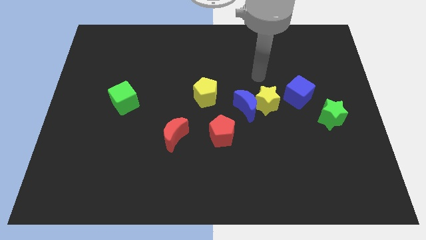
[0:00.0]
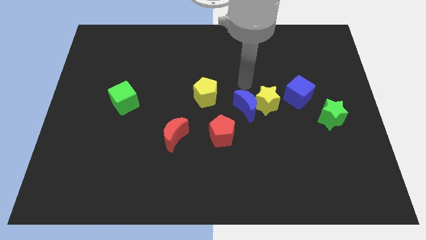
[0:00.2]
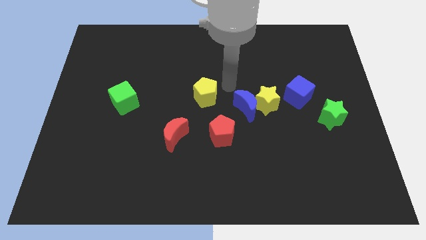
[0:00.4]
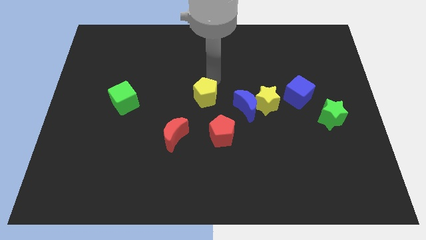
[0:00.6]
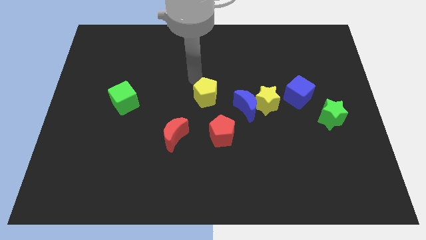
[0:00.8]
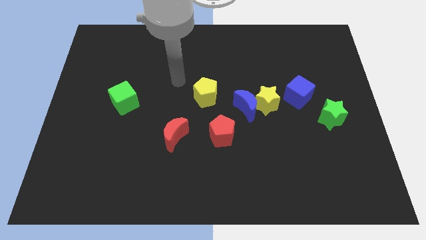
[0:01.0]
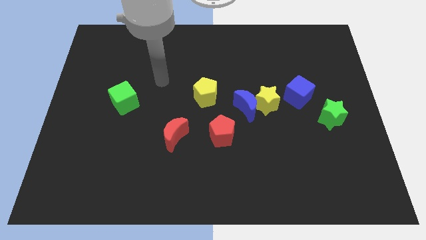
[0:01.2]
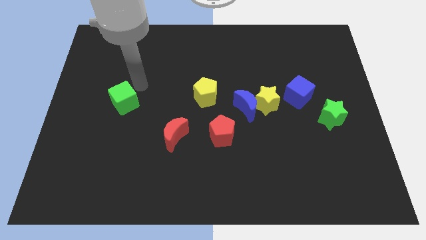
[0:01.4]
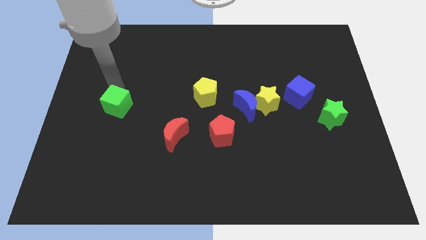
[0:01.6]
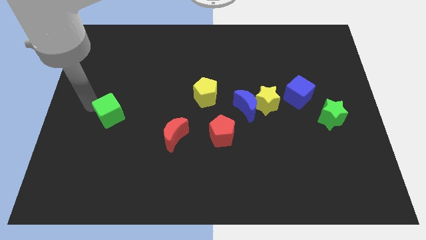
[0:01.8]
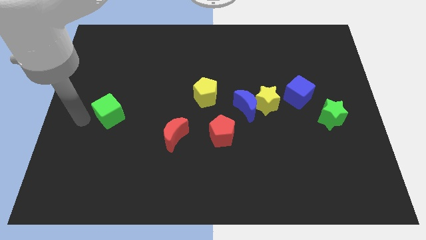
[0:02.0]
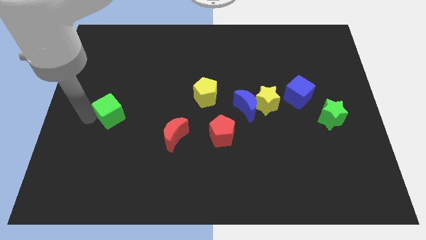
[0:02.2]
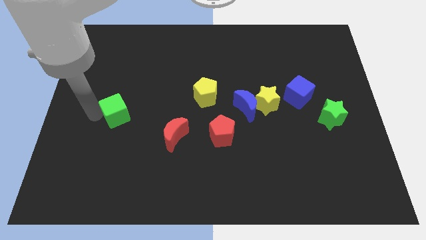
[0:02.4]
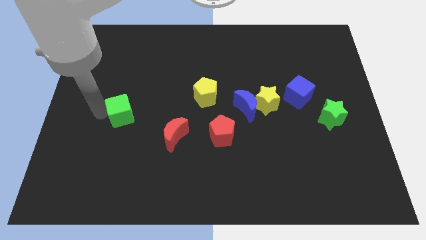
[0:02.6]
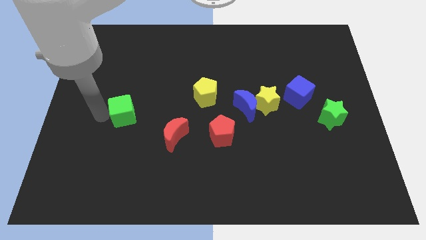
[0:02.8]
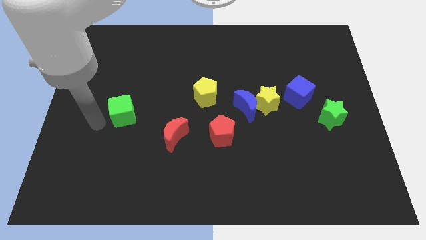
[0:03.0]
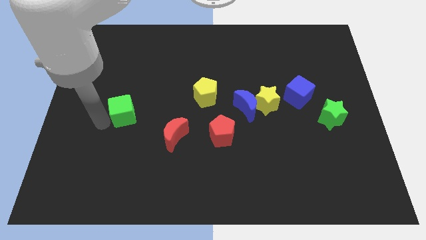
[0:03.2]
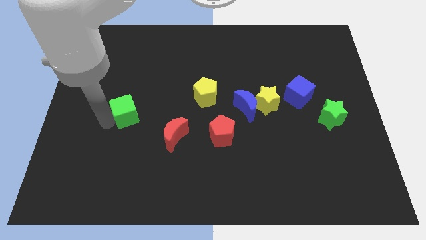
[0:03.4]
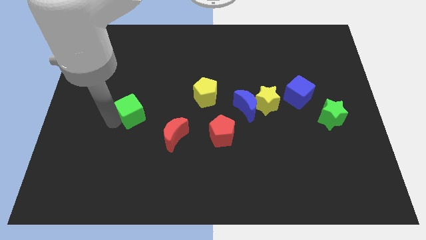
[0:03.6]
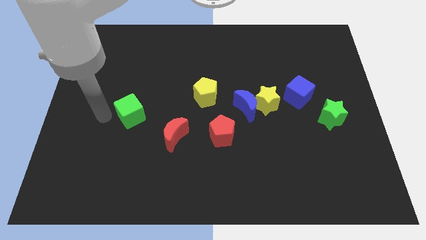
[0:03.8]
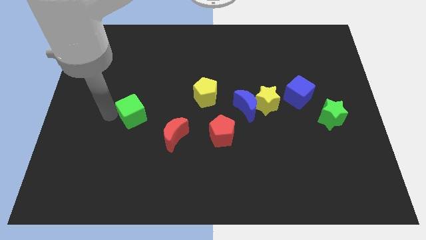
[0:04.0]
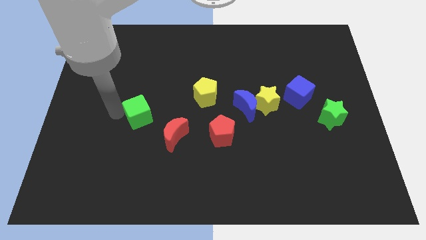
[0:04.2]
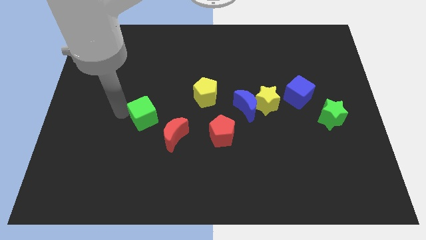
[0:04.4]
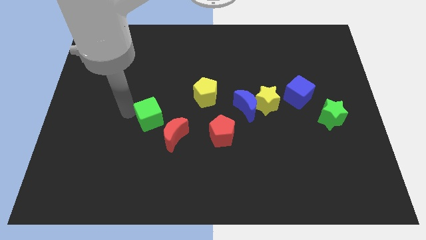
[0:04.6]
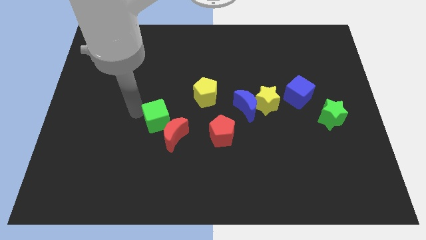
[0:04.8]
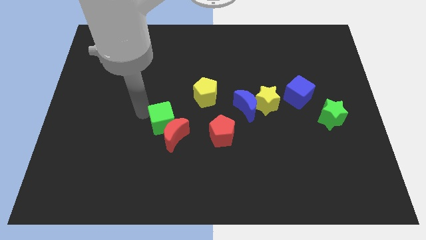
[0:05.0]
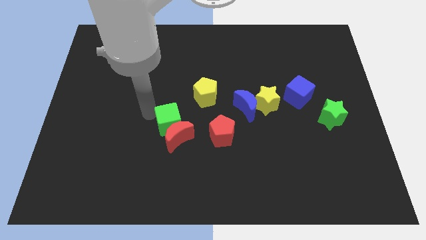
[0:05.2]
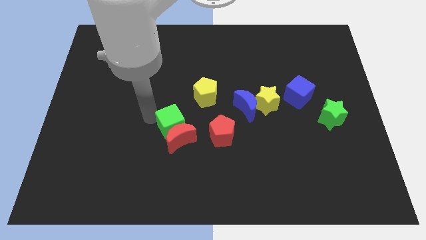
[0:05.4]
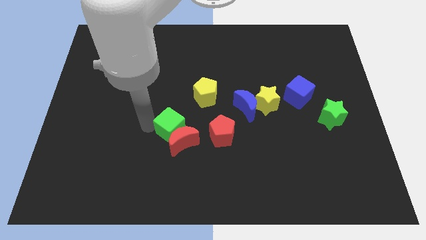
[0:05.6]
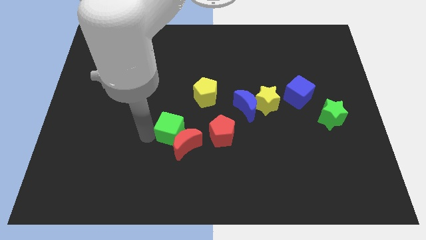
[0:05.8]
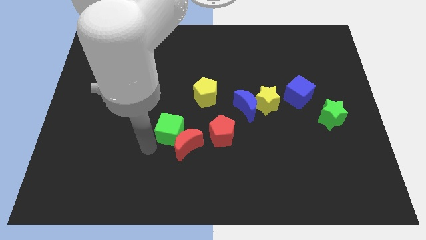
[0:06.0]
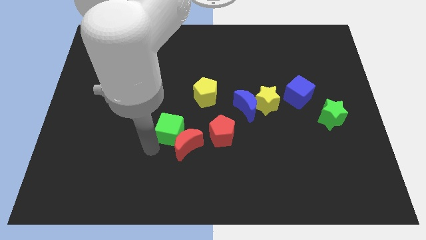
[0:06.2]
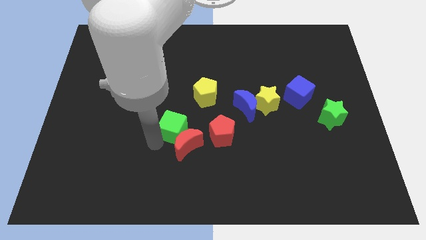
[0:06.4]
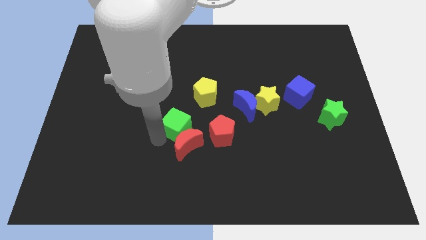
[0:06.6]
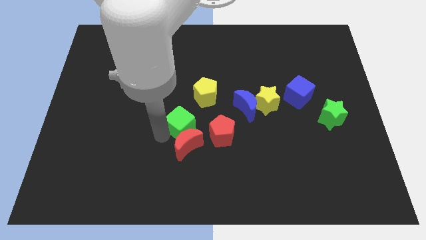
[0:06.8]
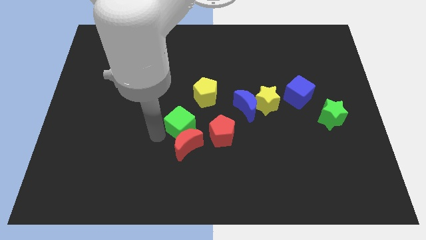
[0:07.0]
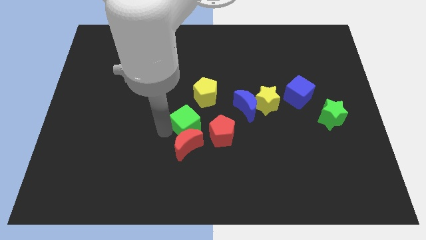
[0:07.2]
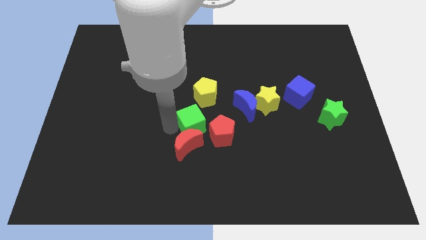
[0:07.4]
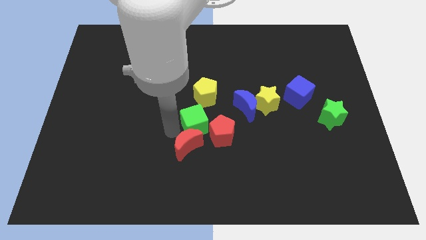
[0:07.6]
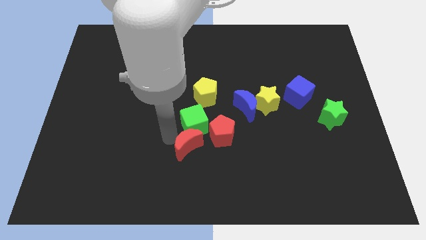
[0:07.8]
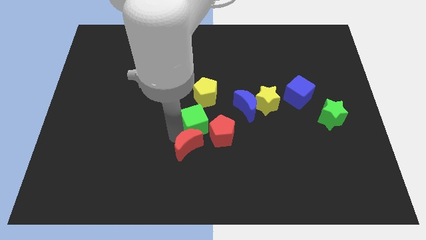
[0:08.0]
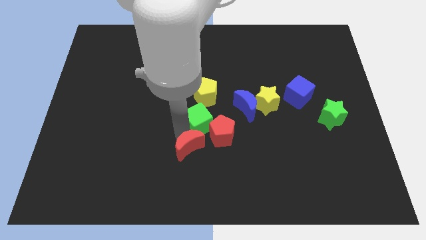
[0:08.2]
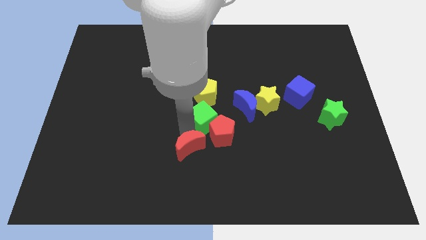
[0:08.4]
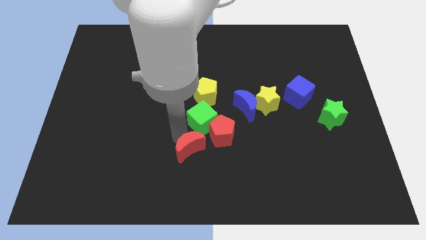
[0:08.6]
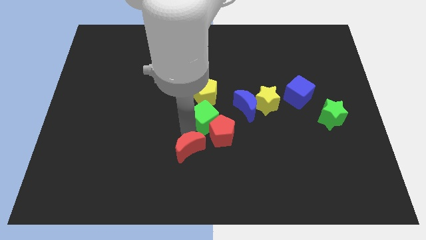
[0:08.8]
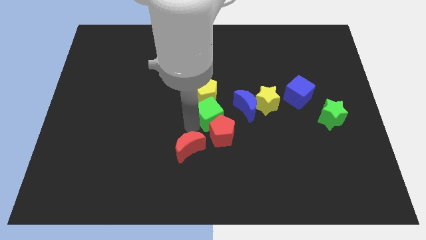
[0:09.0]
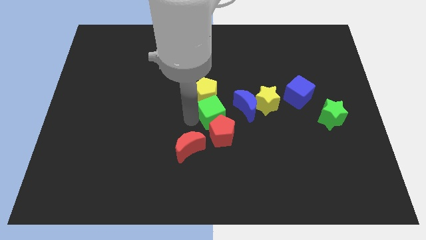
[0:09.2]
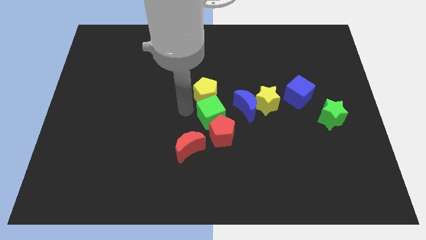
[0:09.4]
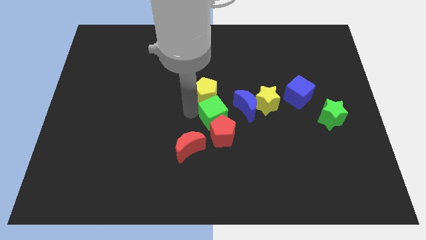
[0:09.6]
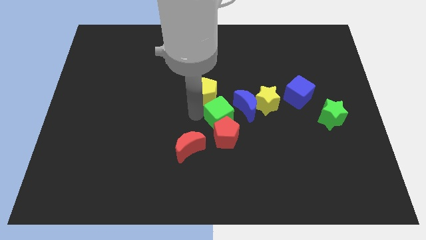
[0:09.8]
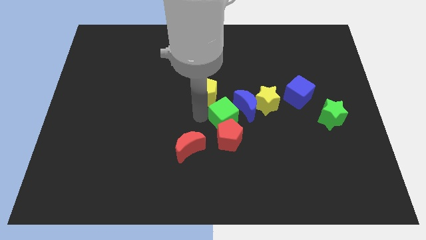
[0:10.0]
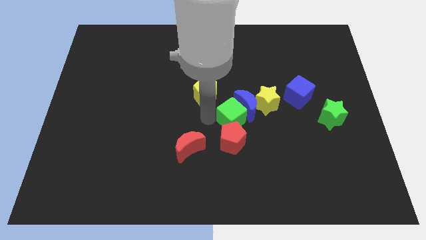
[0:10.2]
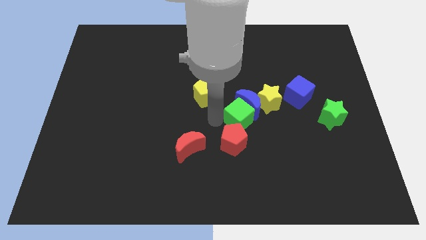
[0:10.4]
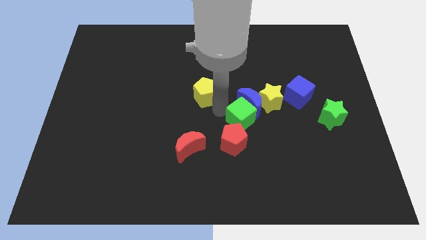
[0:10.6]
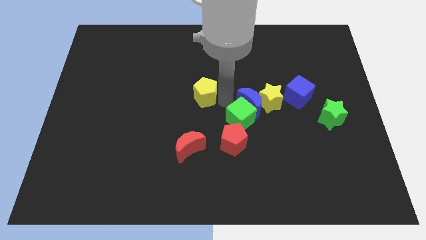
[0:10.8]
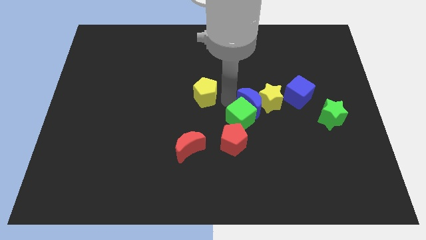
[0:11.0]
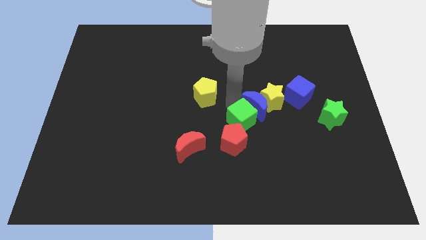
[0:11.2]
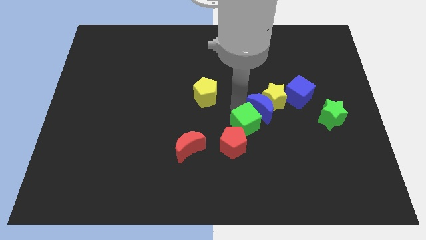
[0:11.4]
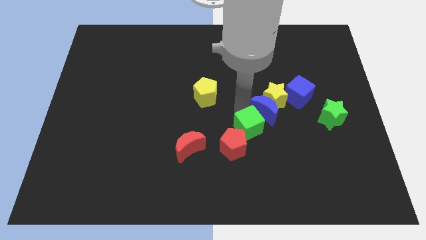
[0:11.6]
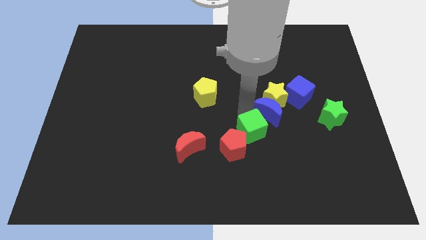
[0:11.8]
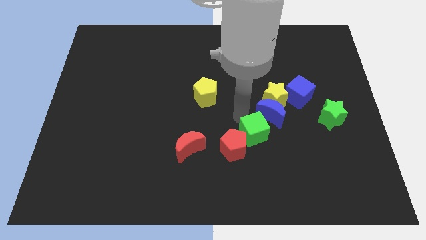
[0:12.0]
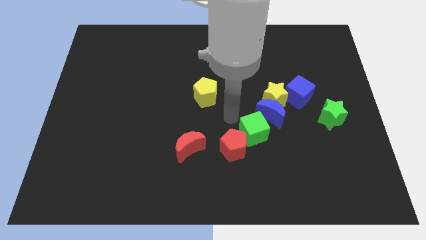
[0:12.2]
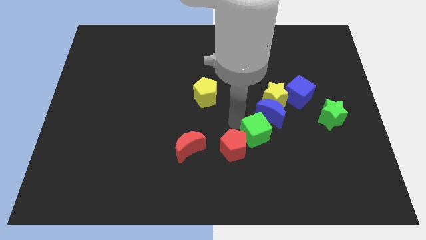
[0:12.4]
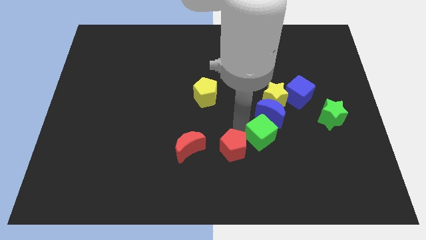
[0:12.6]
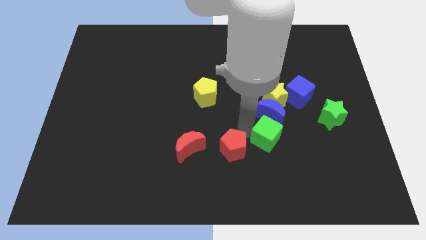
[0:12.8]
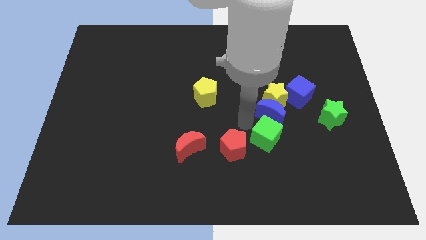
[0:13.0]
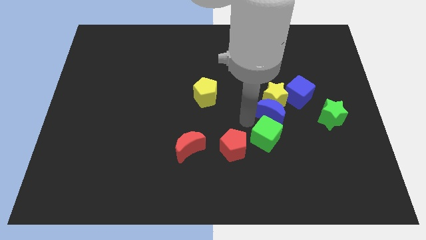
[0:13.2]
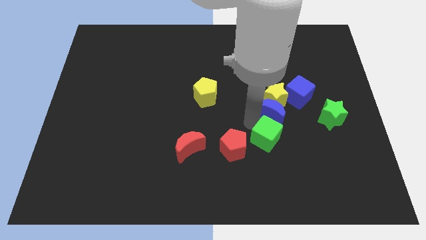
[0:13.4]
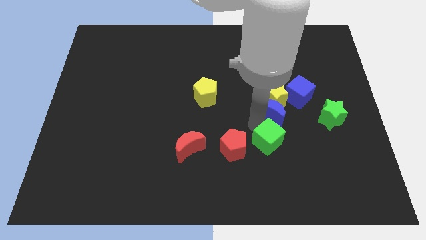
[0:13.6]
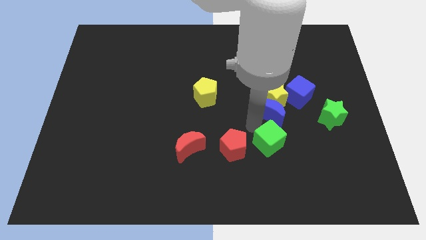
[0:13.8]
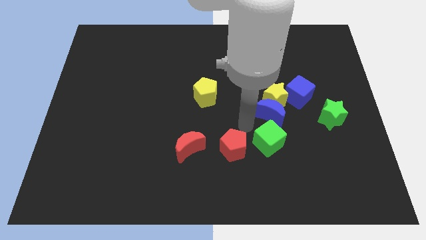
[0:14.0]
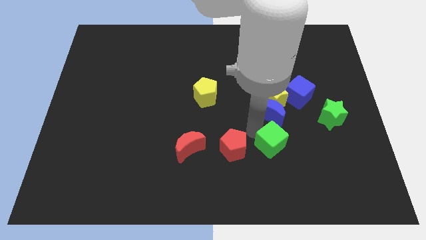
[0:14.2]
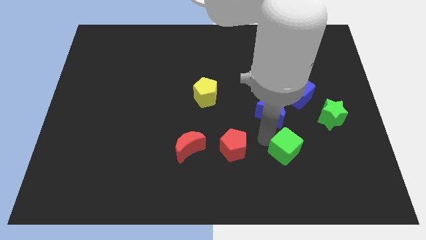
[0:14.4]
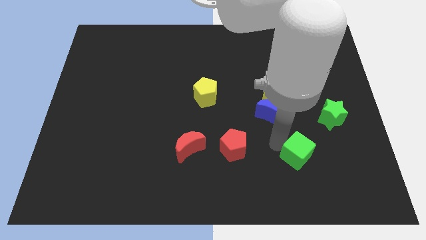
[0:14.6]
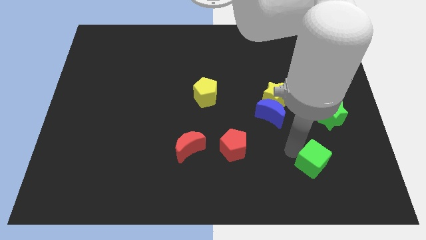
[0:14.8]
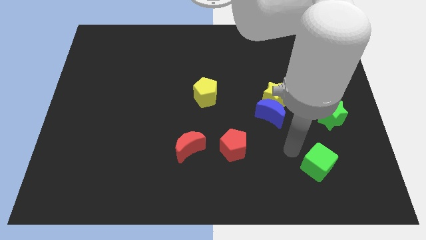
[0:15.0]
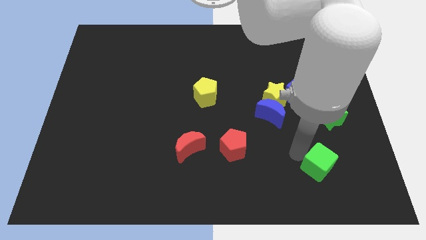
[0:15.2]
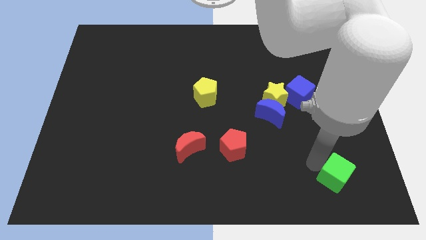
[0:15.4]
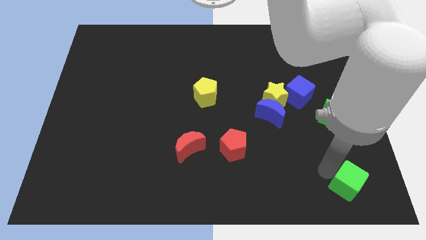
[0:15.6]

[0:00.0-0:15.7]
move the green cube to the bottom right of the board
